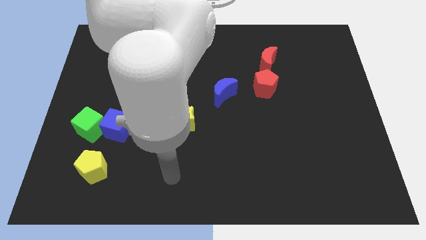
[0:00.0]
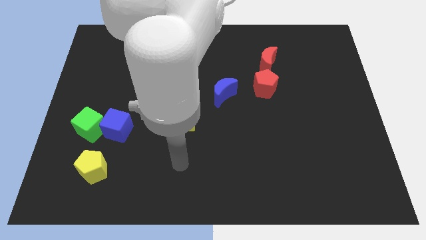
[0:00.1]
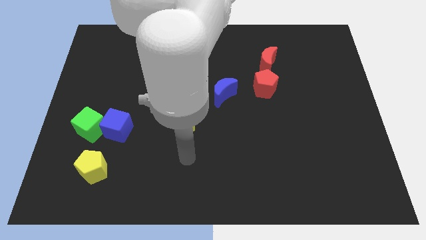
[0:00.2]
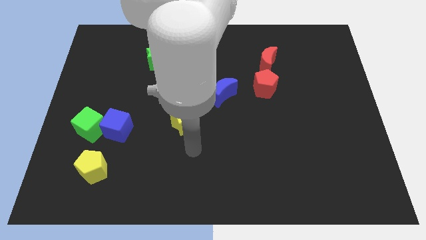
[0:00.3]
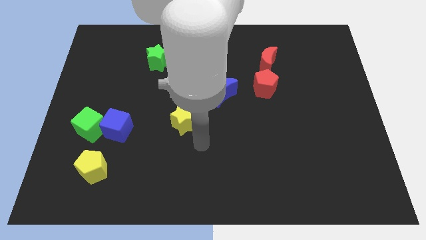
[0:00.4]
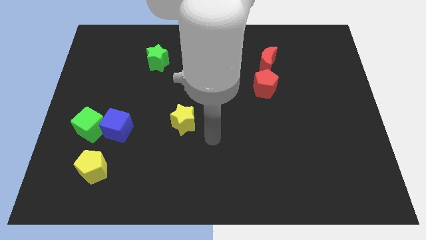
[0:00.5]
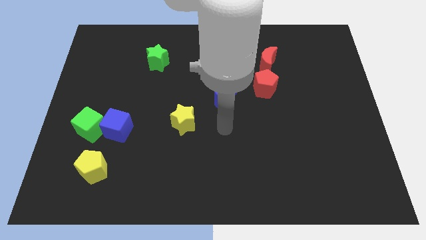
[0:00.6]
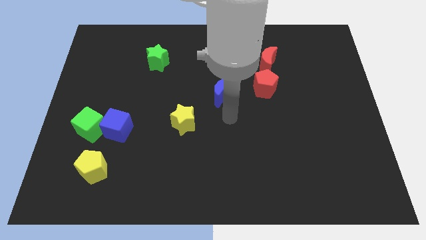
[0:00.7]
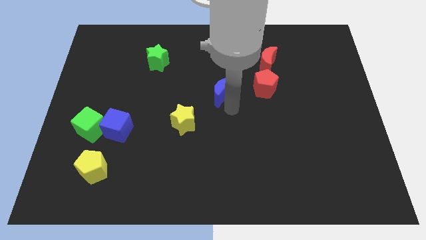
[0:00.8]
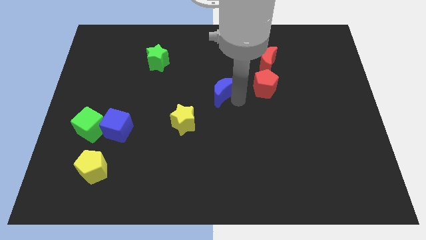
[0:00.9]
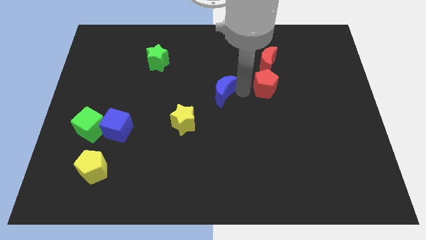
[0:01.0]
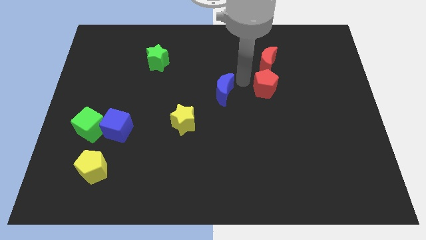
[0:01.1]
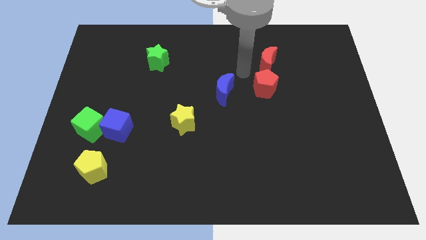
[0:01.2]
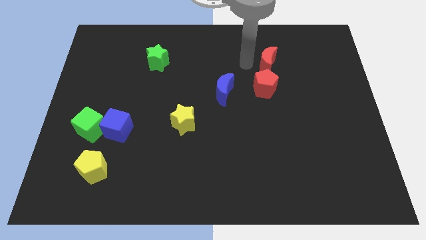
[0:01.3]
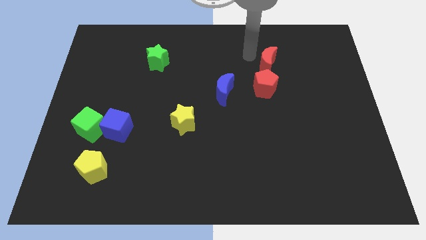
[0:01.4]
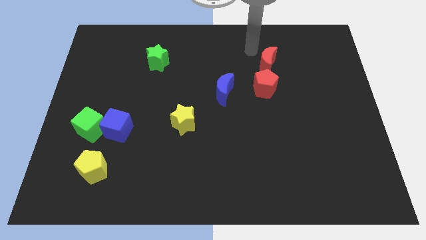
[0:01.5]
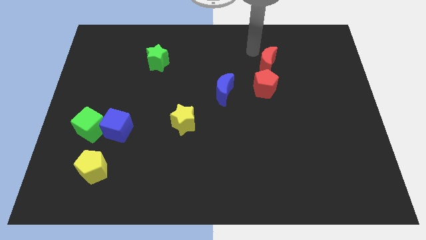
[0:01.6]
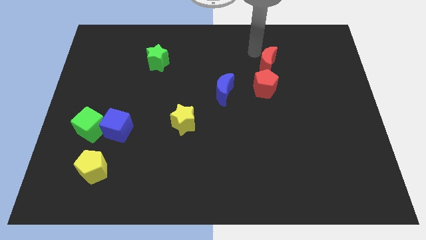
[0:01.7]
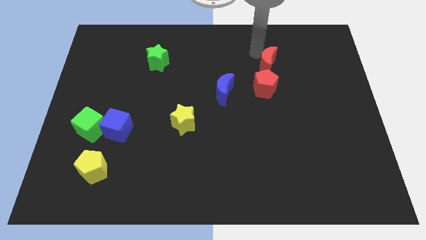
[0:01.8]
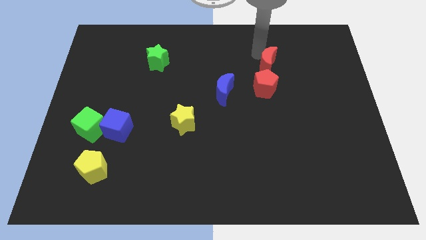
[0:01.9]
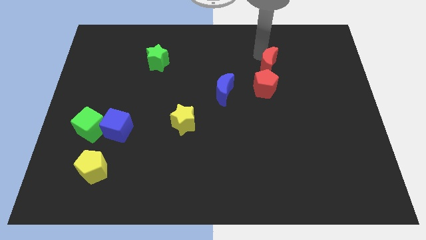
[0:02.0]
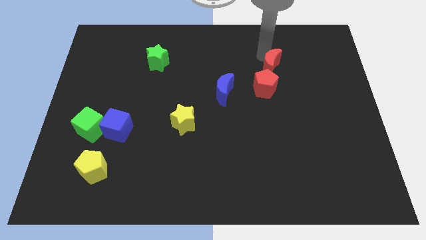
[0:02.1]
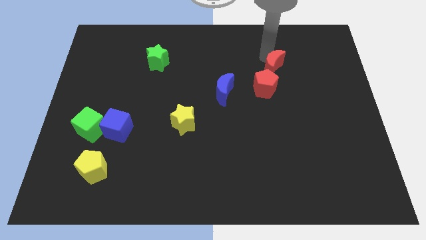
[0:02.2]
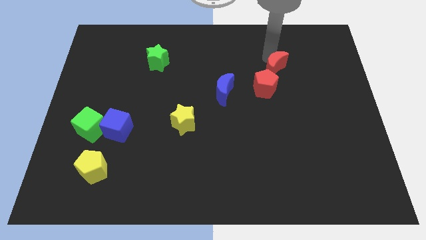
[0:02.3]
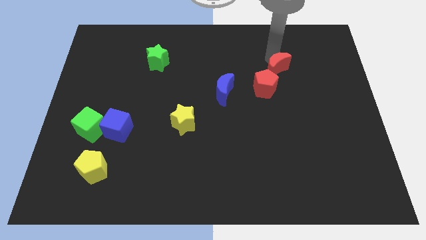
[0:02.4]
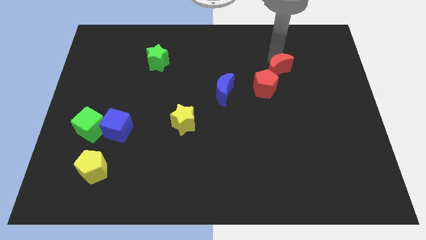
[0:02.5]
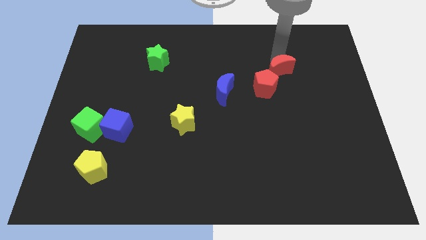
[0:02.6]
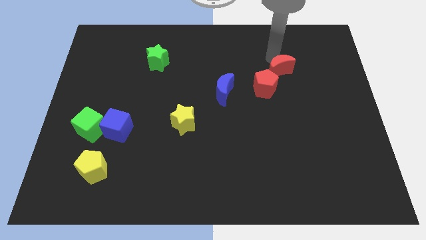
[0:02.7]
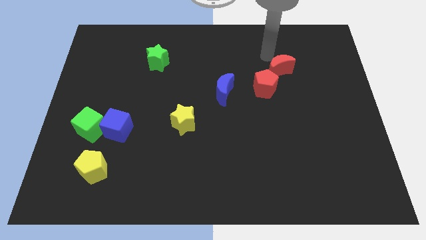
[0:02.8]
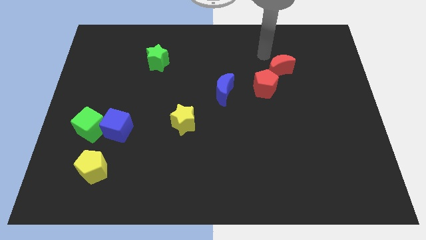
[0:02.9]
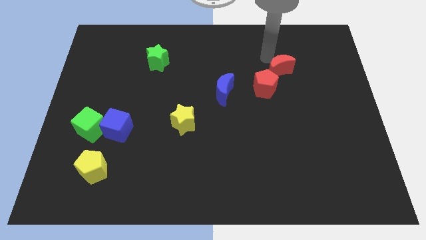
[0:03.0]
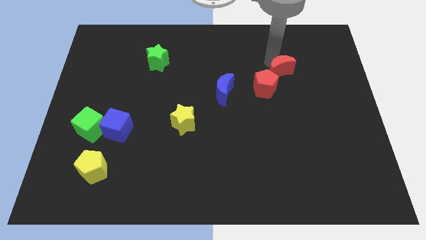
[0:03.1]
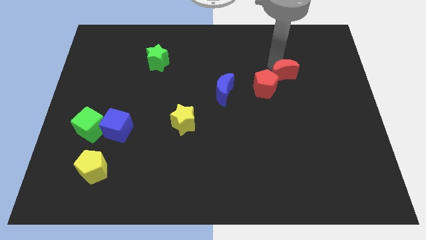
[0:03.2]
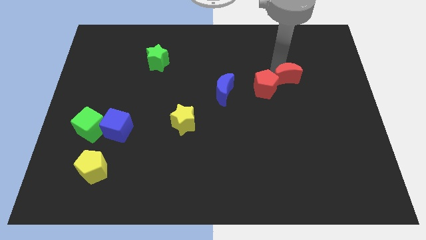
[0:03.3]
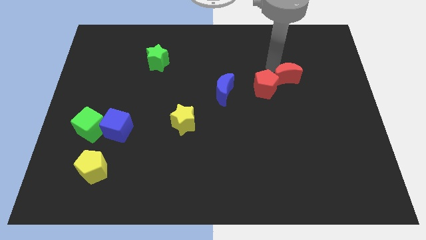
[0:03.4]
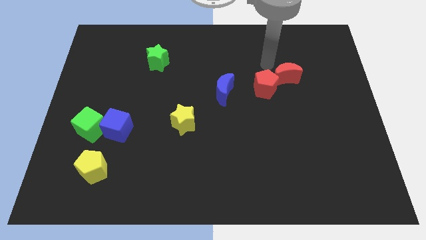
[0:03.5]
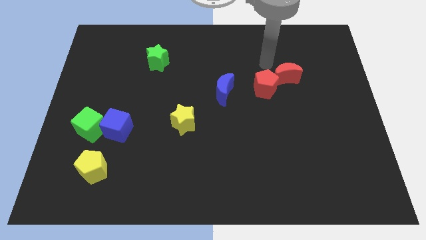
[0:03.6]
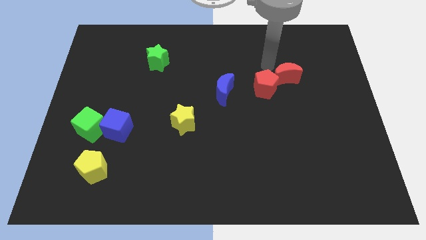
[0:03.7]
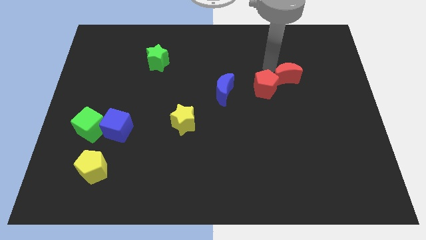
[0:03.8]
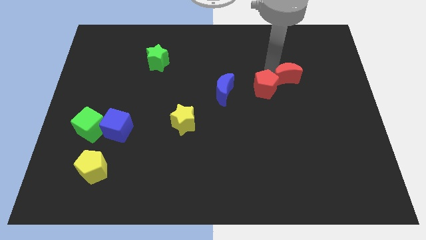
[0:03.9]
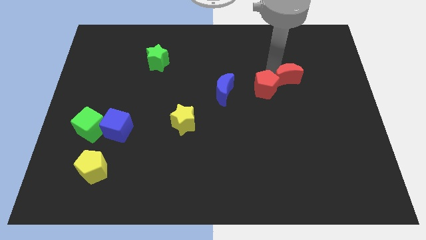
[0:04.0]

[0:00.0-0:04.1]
push the red moon down and right a little bit

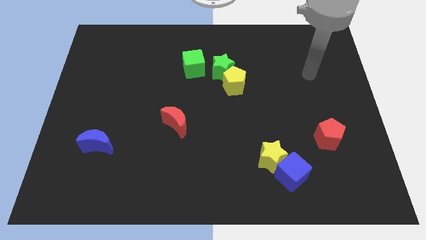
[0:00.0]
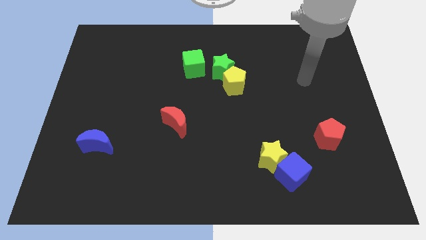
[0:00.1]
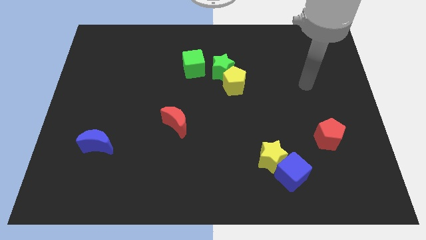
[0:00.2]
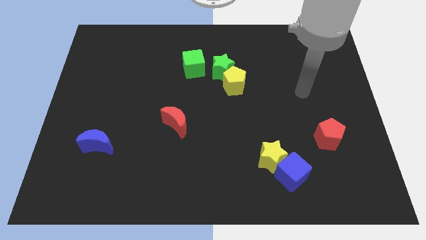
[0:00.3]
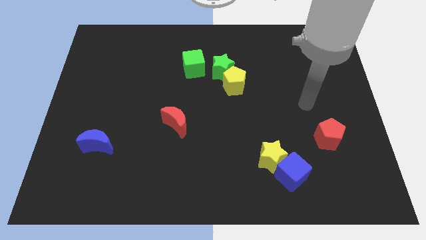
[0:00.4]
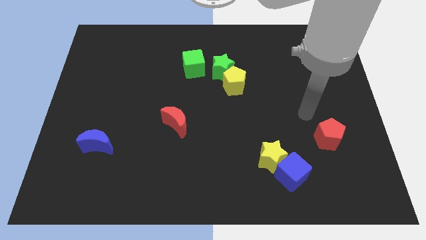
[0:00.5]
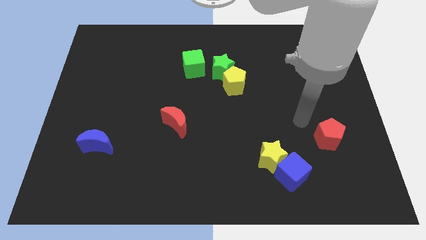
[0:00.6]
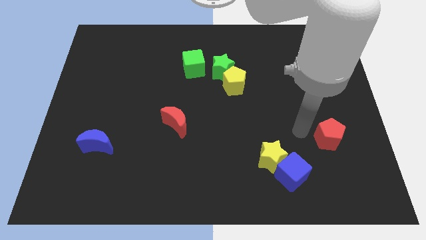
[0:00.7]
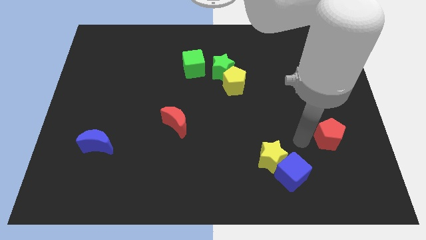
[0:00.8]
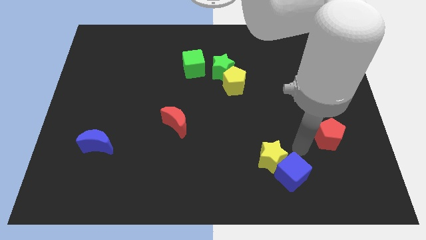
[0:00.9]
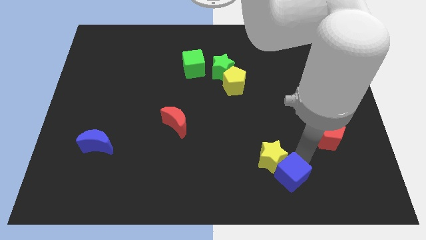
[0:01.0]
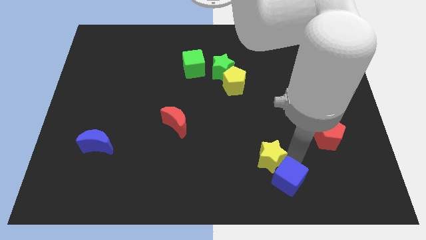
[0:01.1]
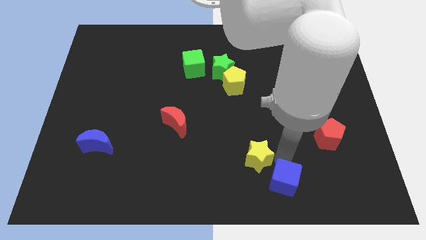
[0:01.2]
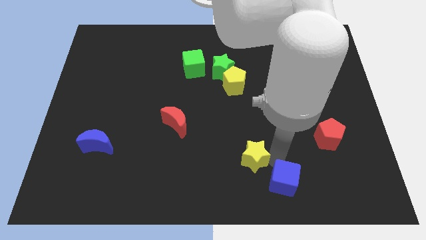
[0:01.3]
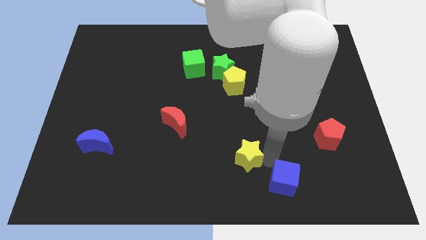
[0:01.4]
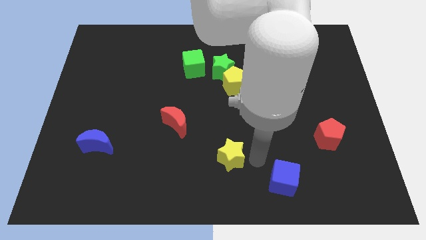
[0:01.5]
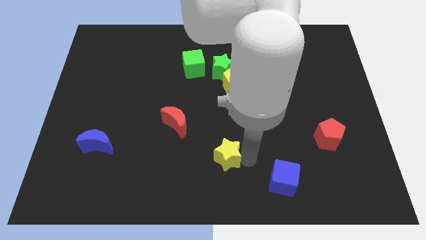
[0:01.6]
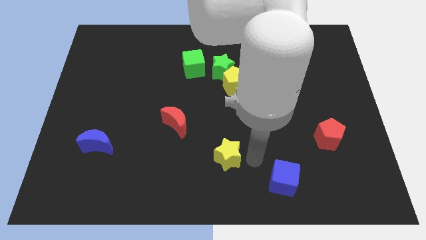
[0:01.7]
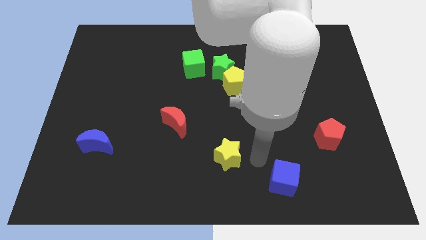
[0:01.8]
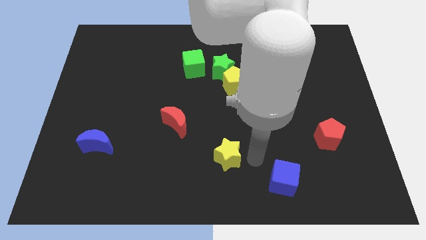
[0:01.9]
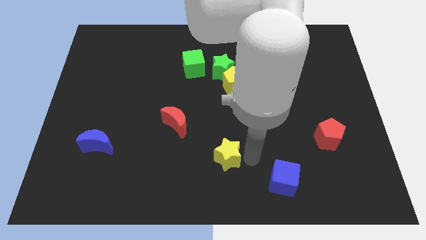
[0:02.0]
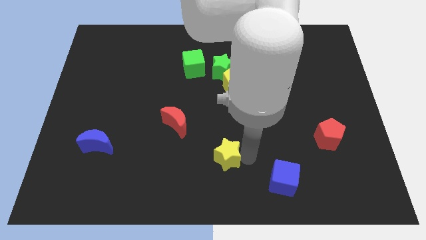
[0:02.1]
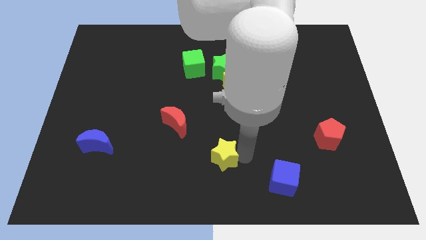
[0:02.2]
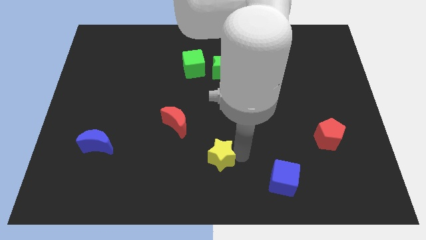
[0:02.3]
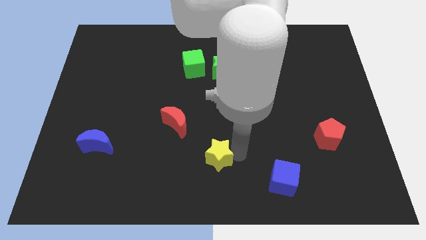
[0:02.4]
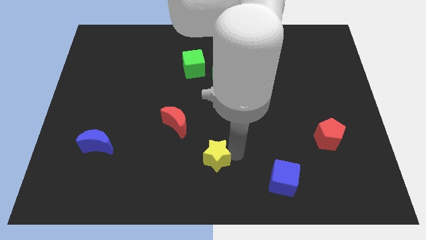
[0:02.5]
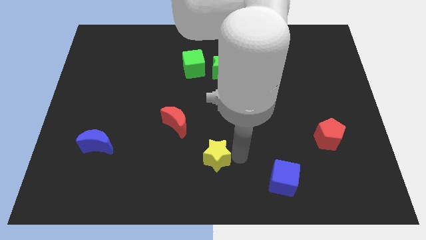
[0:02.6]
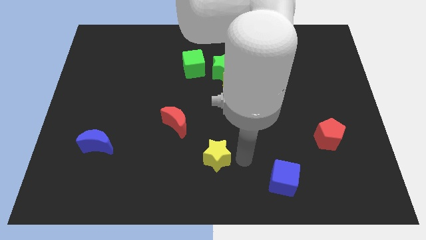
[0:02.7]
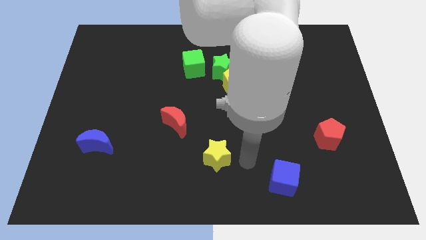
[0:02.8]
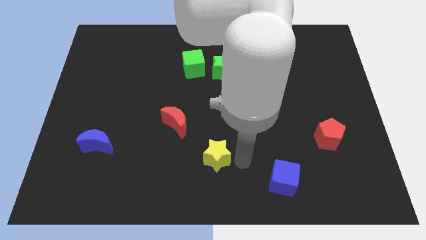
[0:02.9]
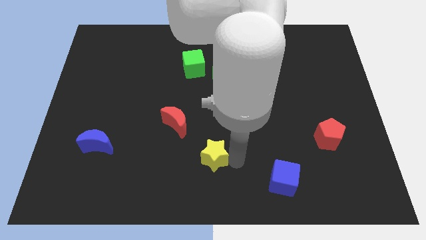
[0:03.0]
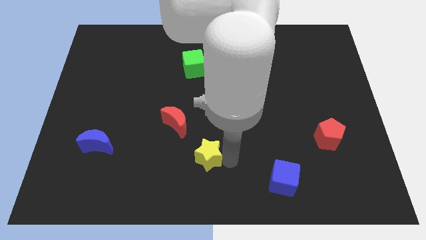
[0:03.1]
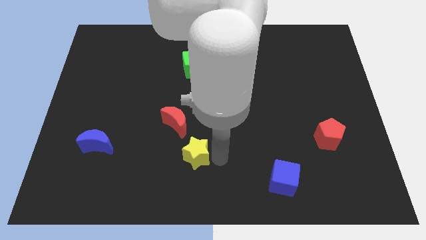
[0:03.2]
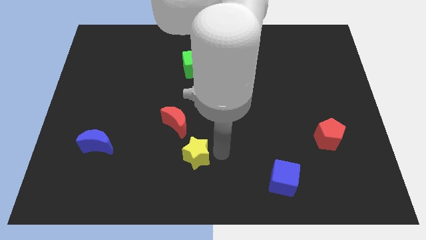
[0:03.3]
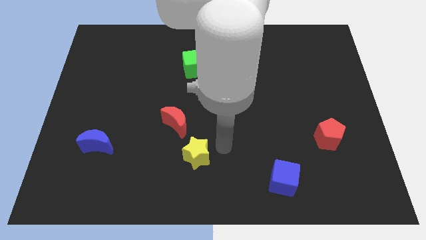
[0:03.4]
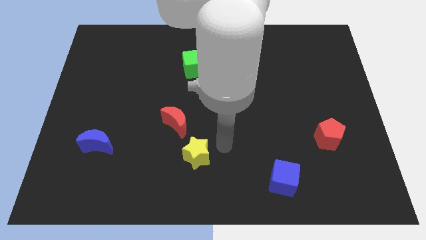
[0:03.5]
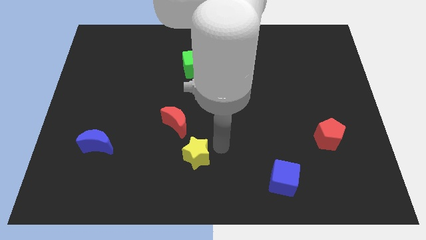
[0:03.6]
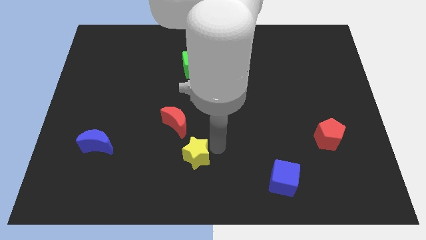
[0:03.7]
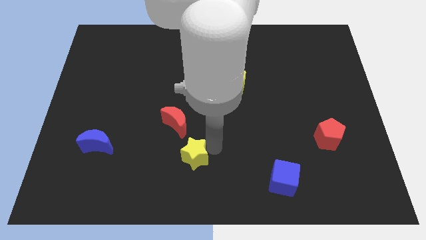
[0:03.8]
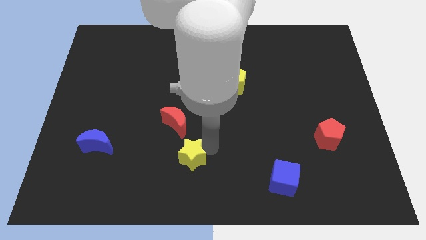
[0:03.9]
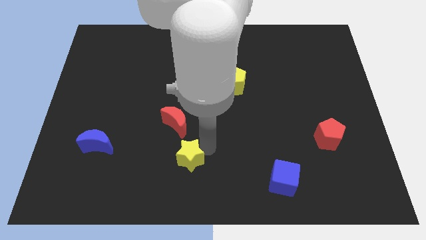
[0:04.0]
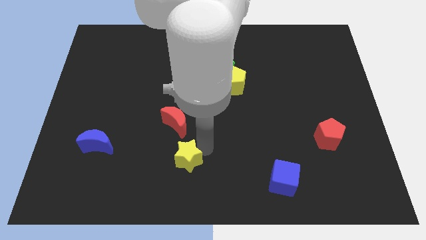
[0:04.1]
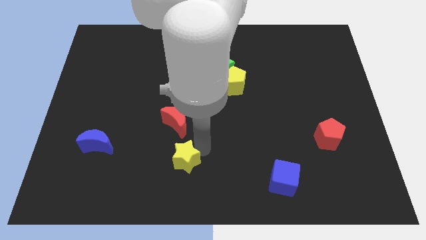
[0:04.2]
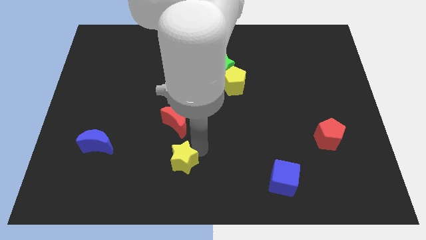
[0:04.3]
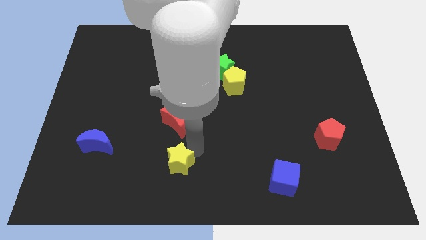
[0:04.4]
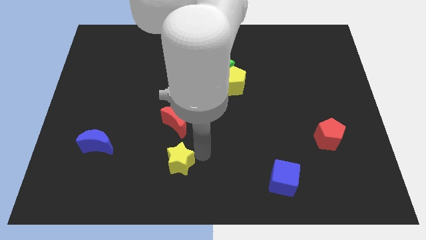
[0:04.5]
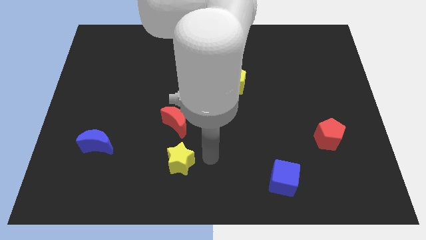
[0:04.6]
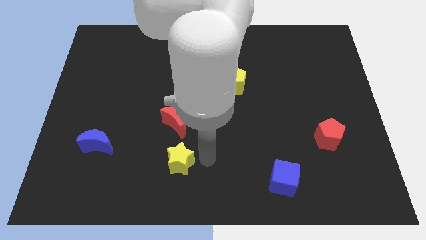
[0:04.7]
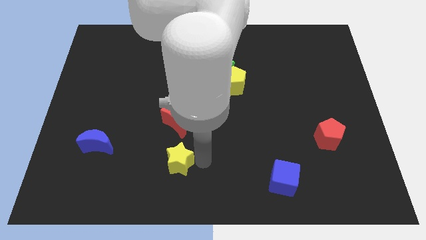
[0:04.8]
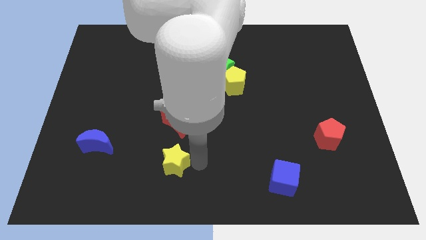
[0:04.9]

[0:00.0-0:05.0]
slide the yellow star left
